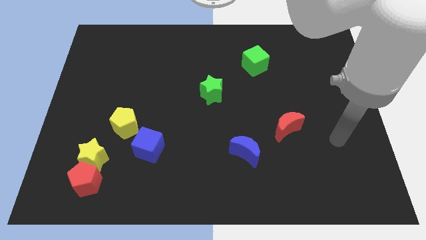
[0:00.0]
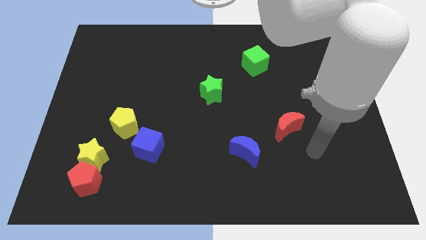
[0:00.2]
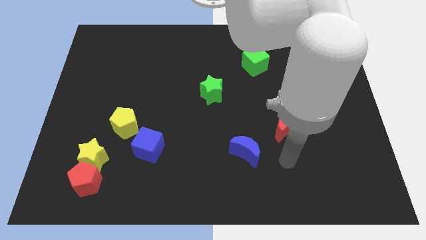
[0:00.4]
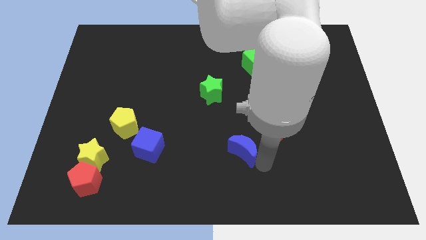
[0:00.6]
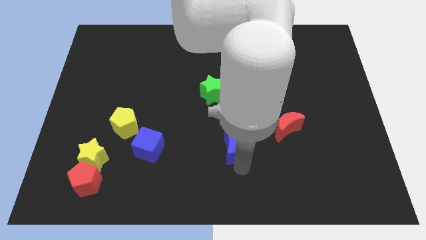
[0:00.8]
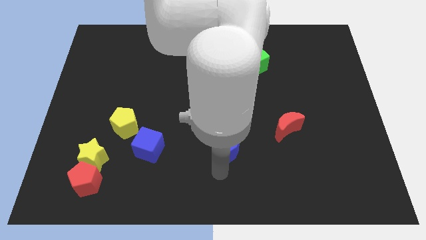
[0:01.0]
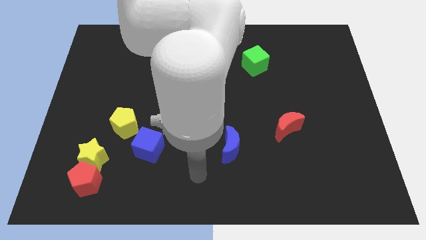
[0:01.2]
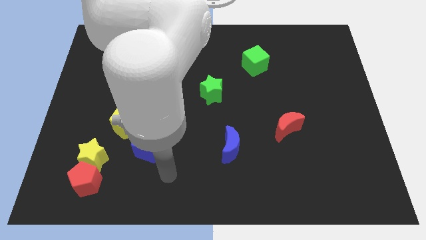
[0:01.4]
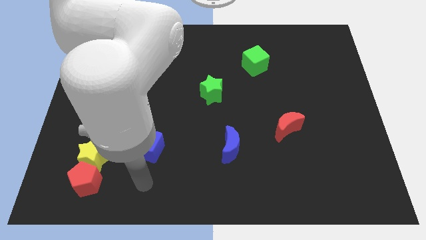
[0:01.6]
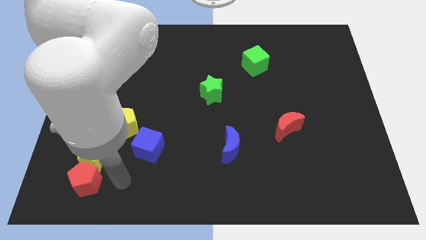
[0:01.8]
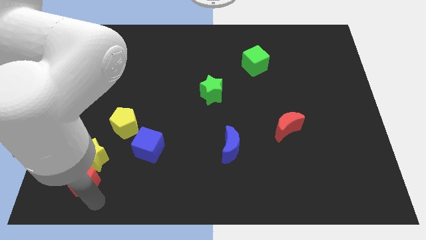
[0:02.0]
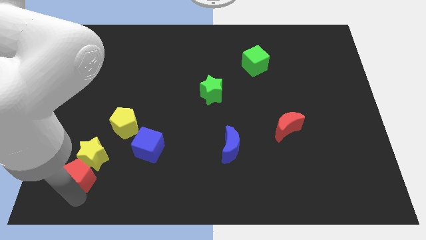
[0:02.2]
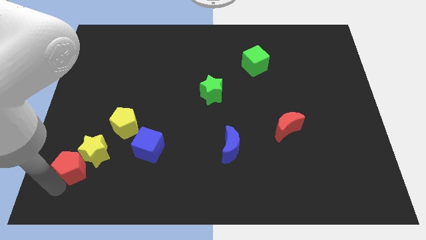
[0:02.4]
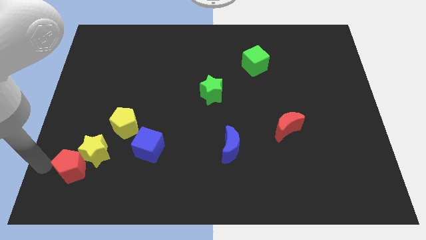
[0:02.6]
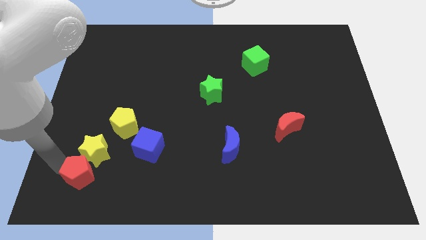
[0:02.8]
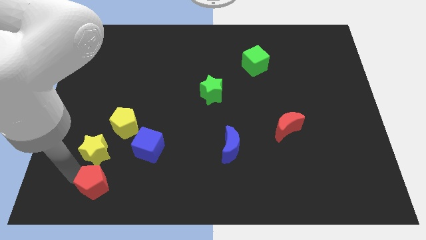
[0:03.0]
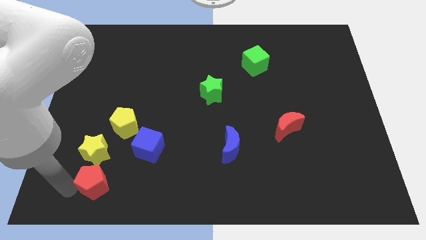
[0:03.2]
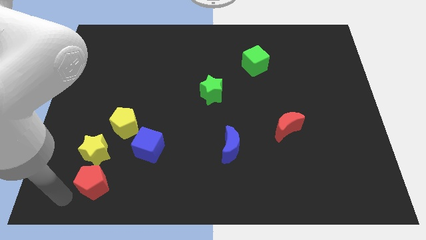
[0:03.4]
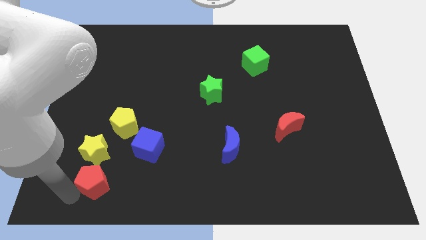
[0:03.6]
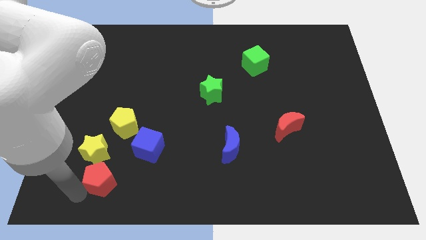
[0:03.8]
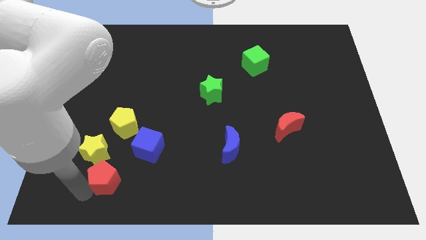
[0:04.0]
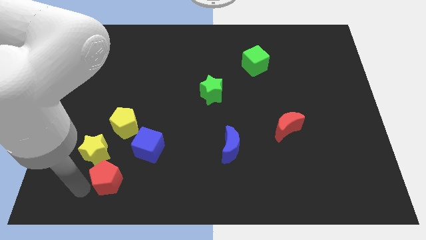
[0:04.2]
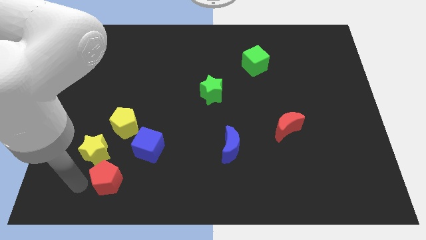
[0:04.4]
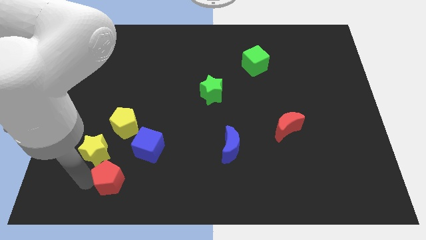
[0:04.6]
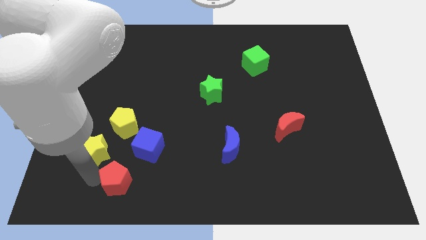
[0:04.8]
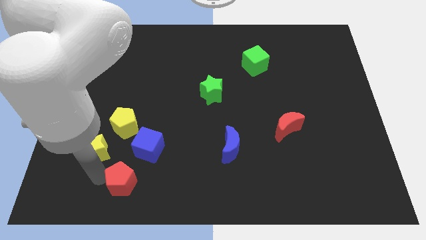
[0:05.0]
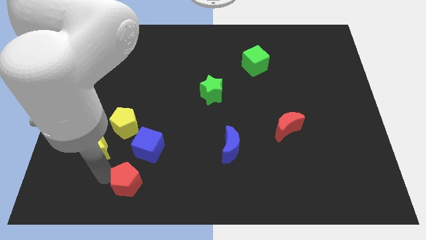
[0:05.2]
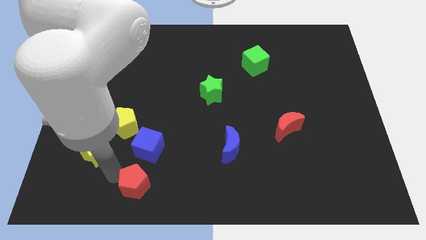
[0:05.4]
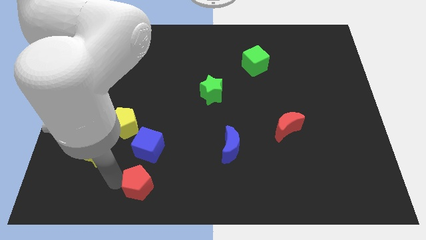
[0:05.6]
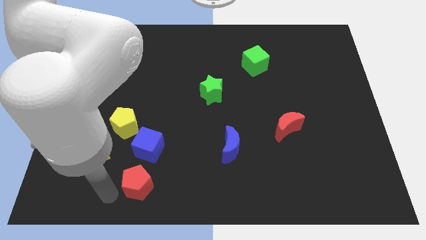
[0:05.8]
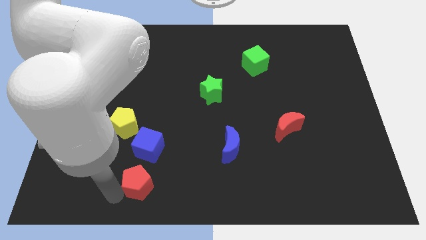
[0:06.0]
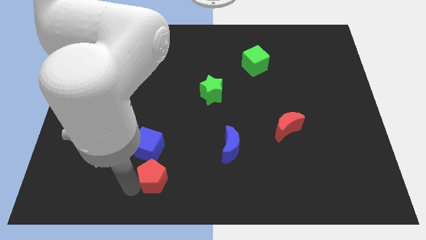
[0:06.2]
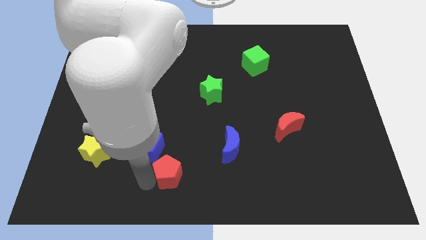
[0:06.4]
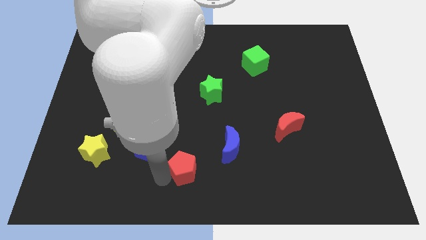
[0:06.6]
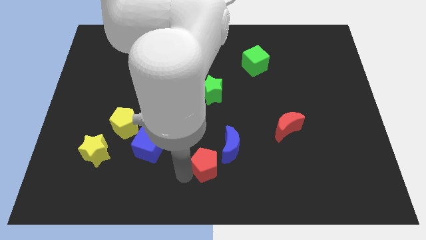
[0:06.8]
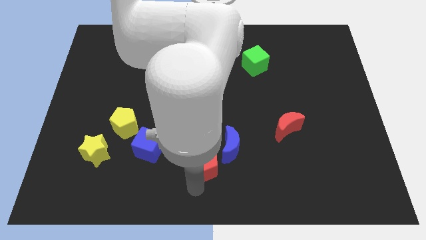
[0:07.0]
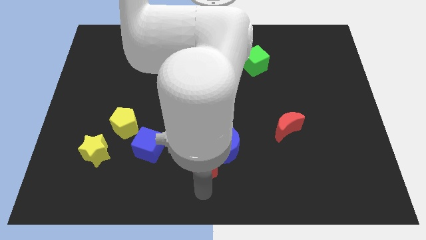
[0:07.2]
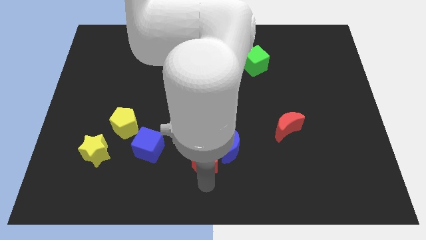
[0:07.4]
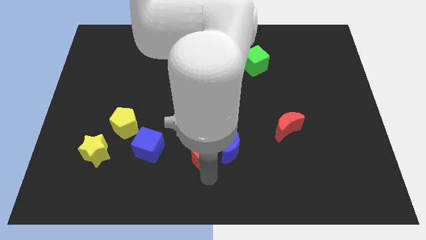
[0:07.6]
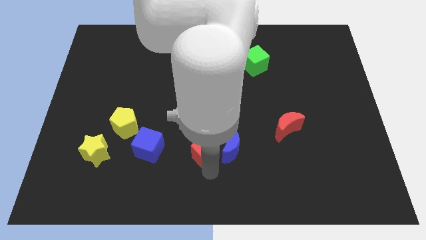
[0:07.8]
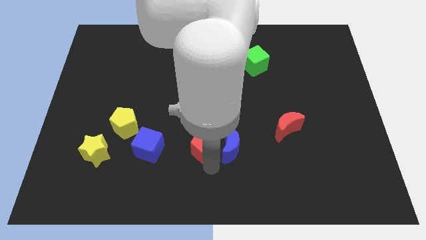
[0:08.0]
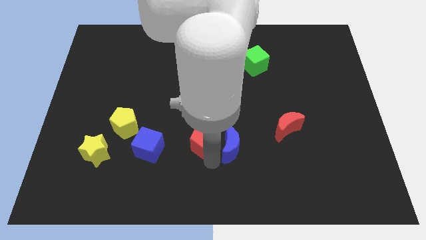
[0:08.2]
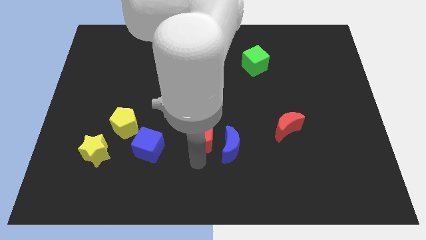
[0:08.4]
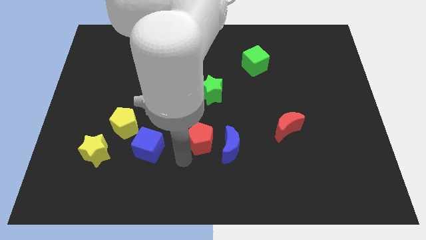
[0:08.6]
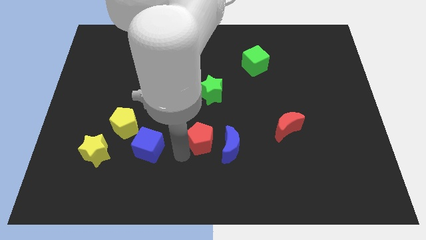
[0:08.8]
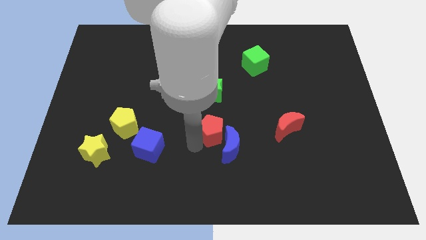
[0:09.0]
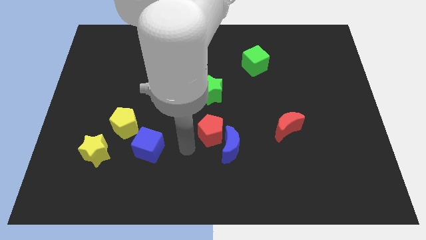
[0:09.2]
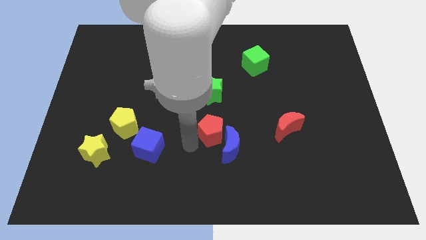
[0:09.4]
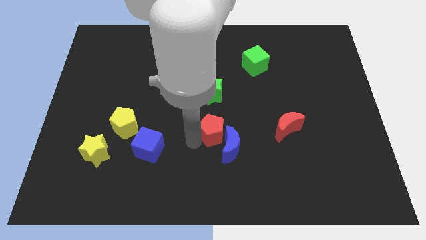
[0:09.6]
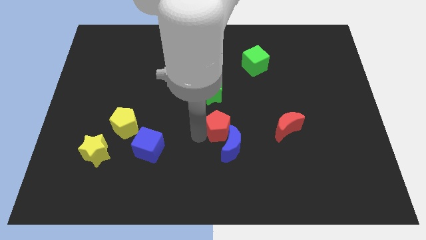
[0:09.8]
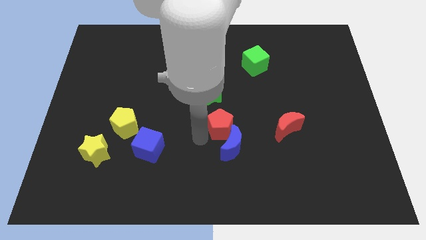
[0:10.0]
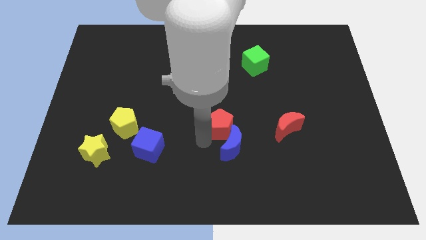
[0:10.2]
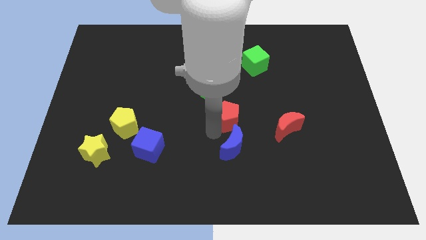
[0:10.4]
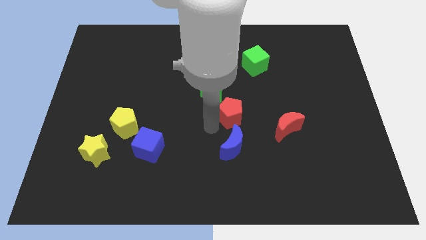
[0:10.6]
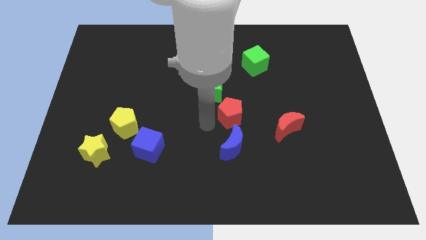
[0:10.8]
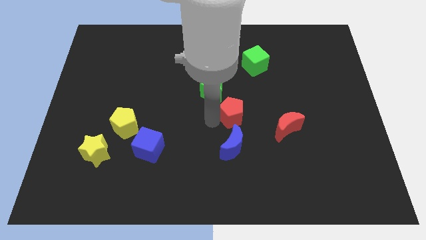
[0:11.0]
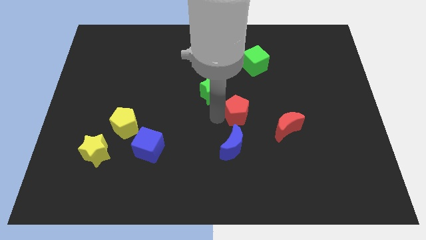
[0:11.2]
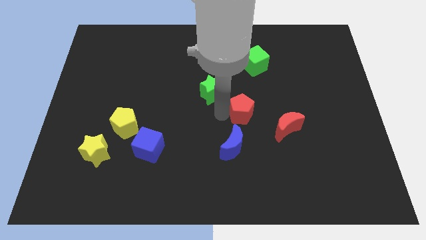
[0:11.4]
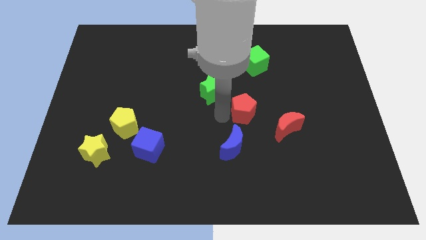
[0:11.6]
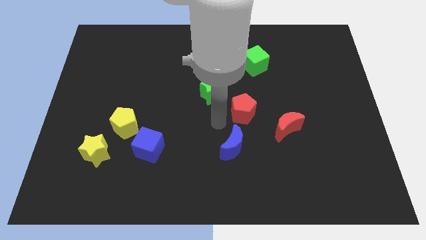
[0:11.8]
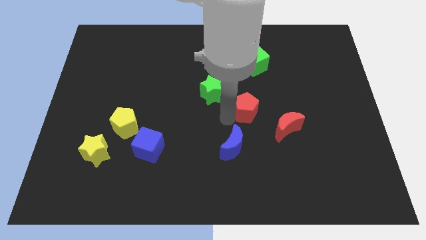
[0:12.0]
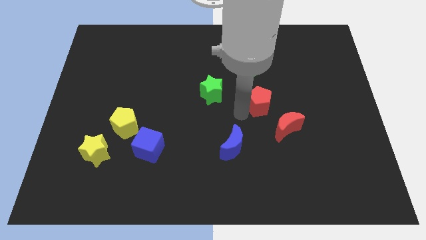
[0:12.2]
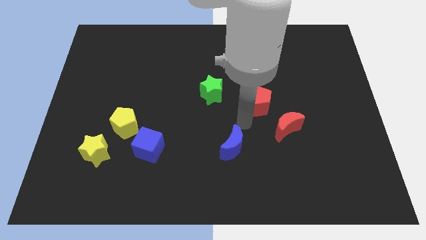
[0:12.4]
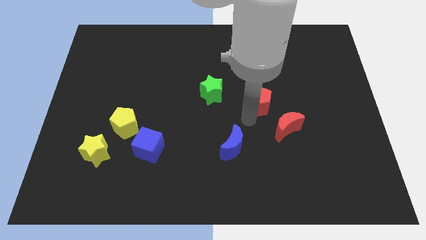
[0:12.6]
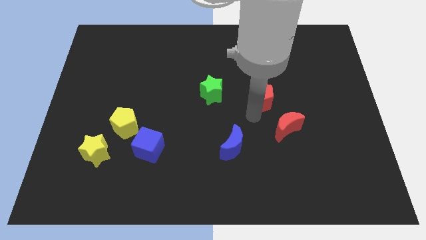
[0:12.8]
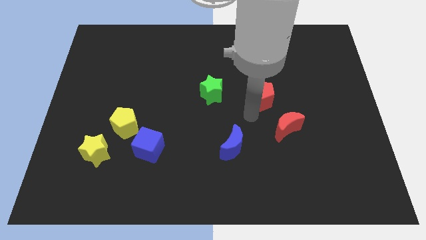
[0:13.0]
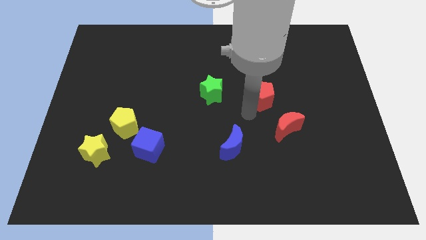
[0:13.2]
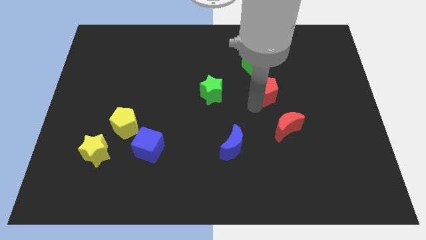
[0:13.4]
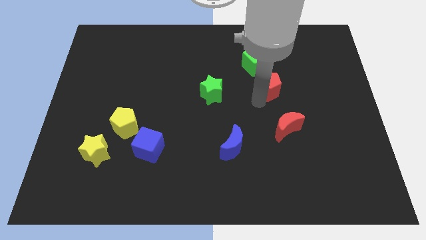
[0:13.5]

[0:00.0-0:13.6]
put the red pentagon to the bottom right of the green cube
